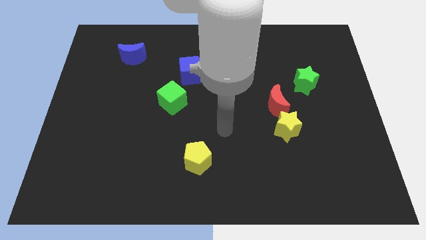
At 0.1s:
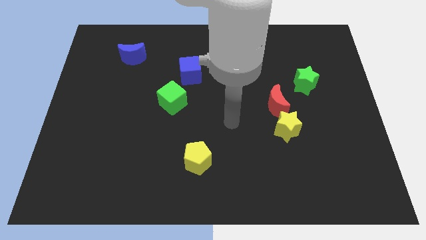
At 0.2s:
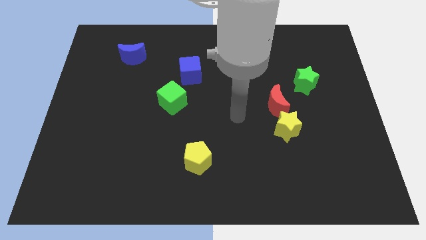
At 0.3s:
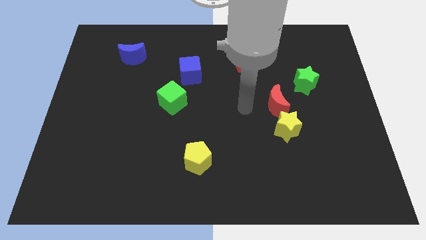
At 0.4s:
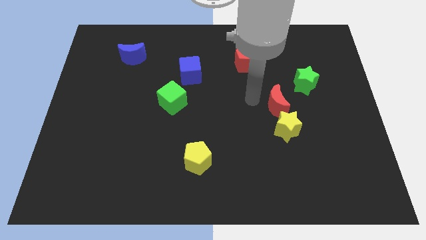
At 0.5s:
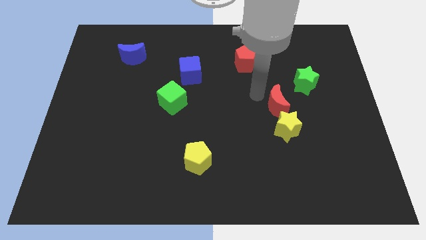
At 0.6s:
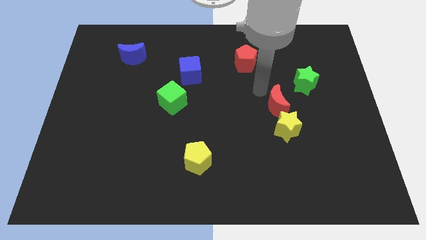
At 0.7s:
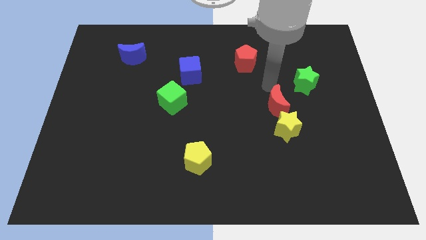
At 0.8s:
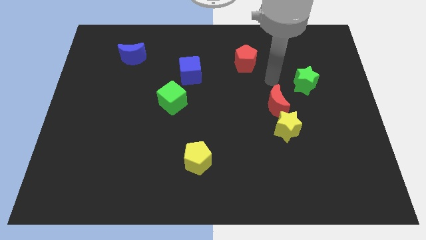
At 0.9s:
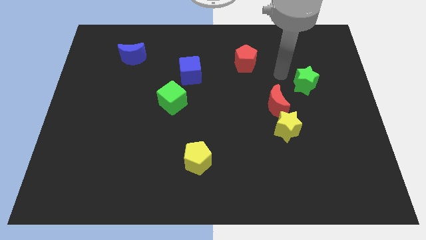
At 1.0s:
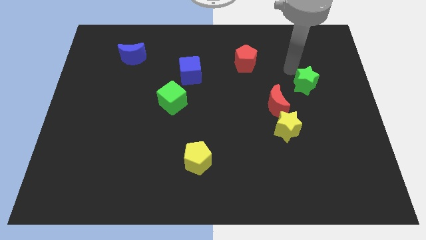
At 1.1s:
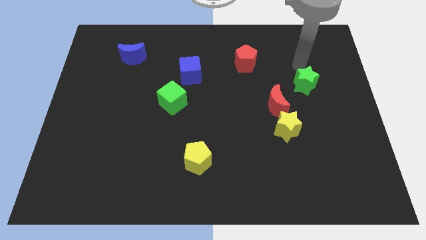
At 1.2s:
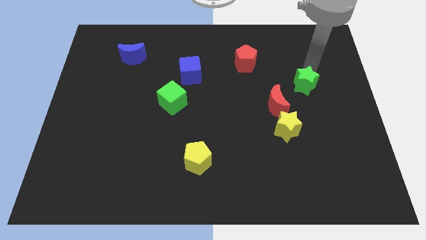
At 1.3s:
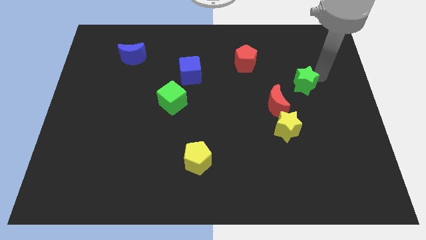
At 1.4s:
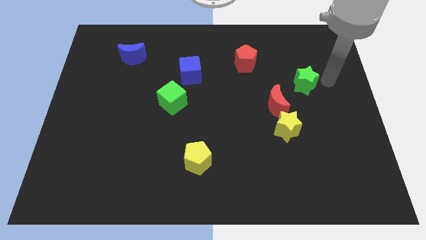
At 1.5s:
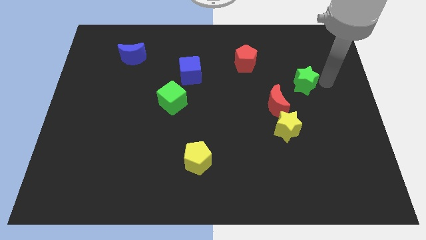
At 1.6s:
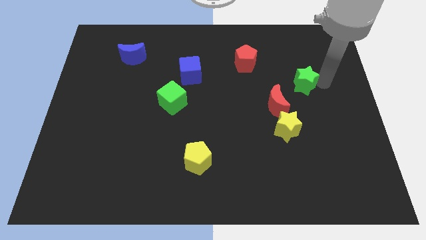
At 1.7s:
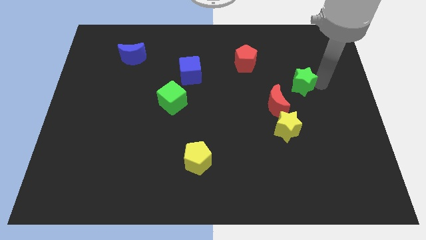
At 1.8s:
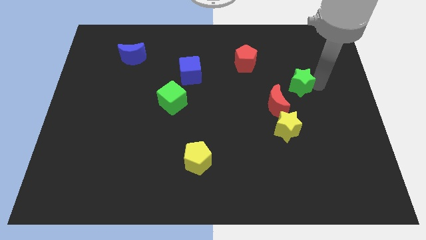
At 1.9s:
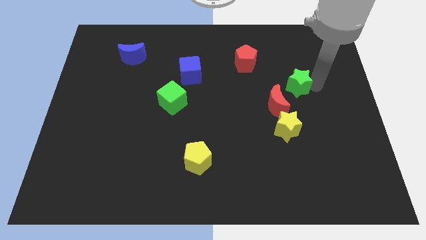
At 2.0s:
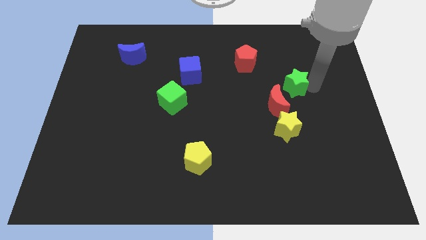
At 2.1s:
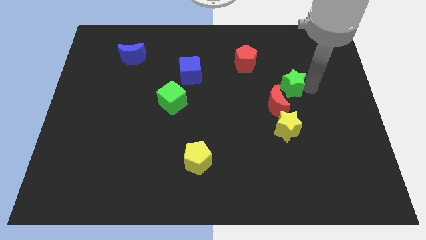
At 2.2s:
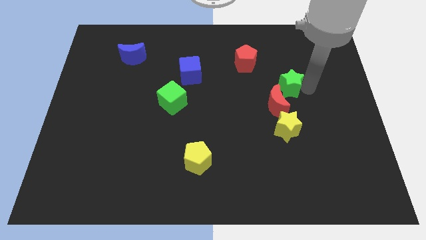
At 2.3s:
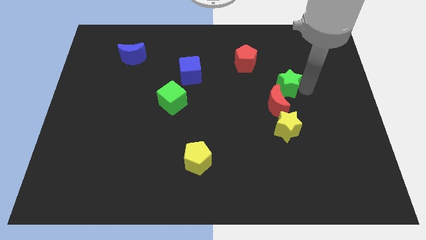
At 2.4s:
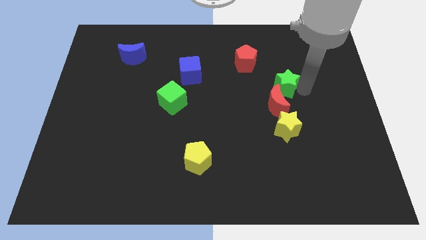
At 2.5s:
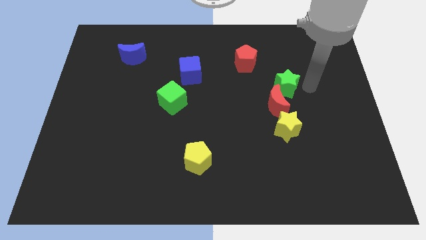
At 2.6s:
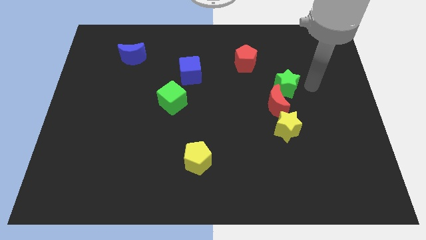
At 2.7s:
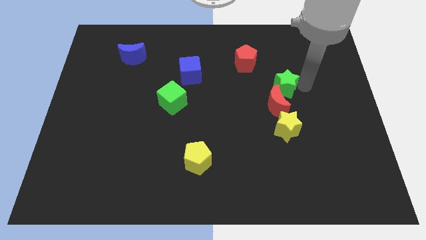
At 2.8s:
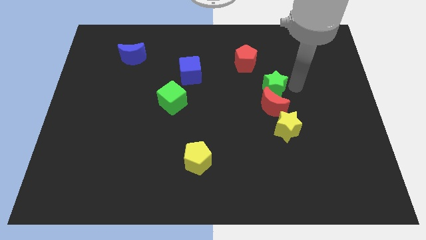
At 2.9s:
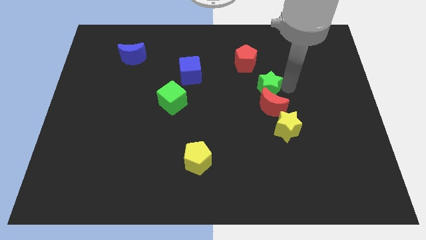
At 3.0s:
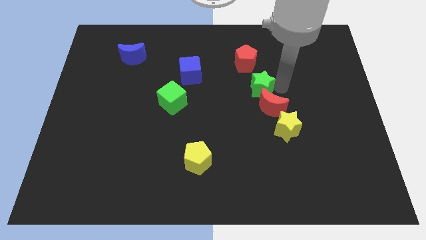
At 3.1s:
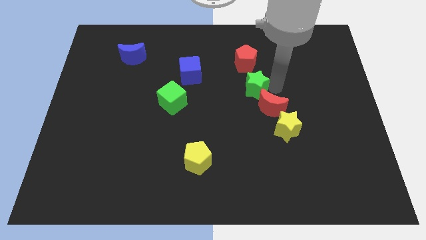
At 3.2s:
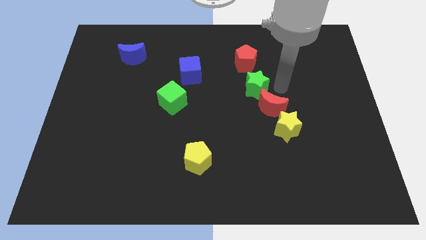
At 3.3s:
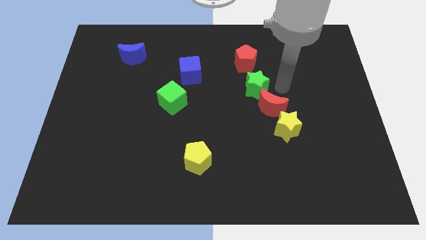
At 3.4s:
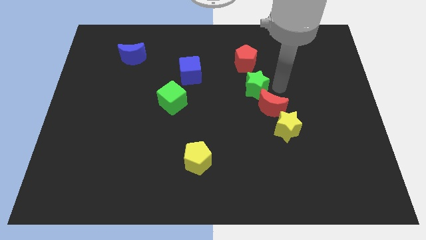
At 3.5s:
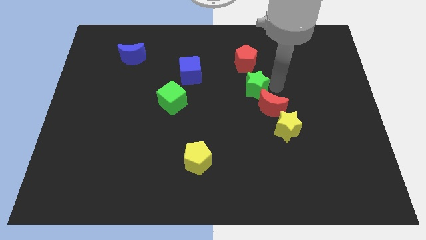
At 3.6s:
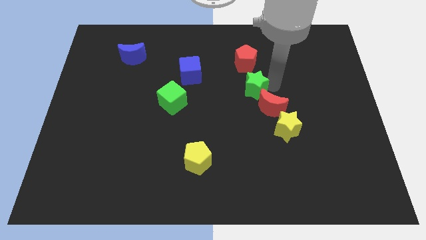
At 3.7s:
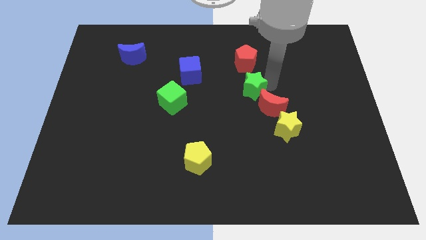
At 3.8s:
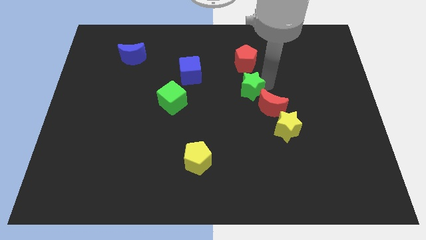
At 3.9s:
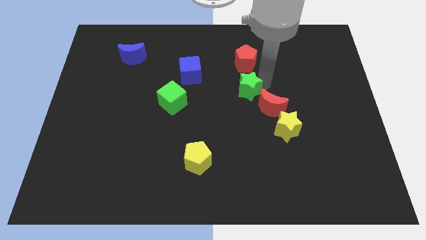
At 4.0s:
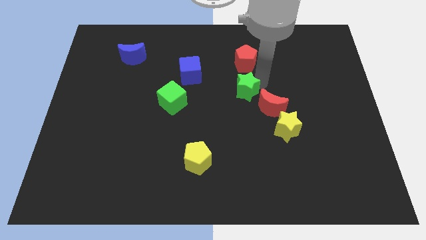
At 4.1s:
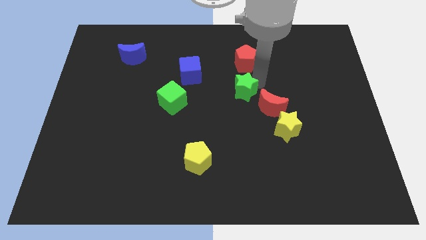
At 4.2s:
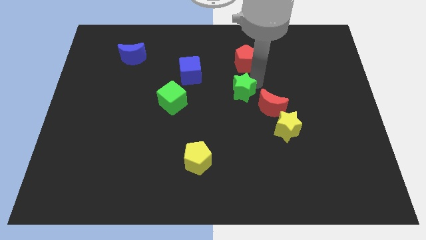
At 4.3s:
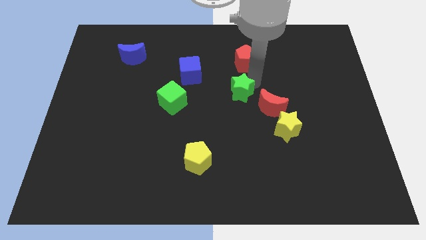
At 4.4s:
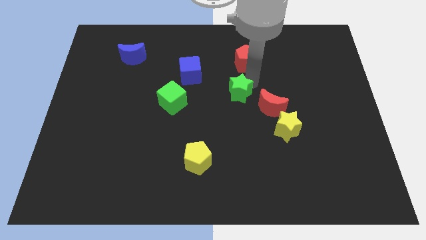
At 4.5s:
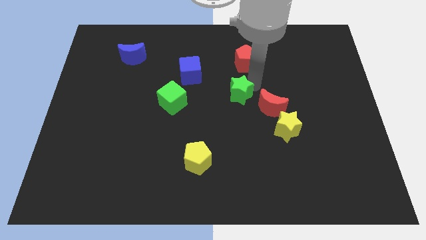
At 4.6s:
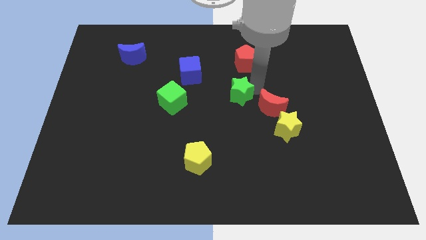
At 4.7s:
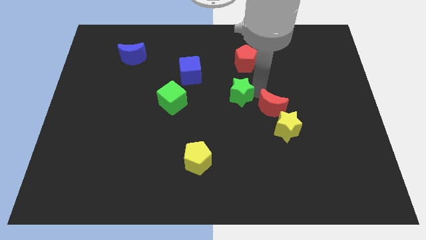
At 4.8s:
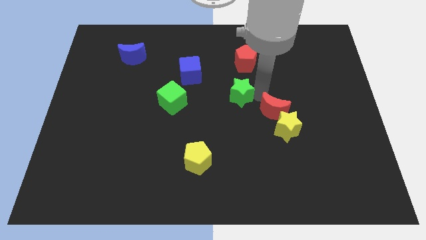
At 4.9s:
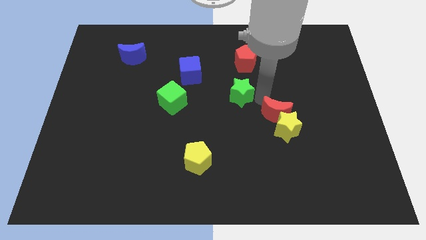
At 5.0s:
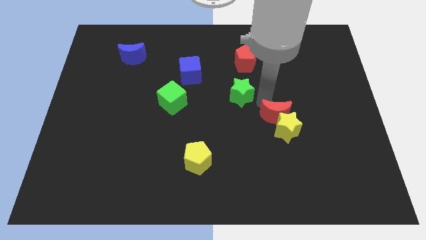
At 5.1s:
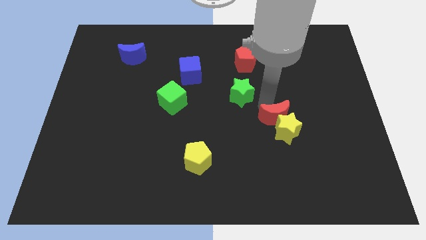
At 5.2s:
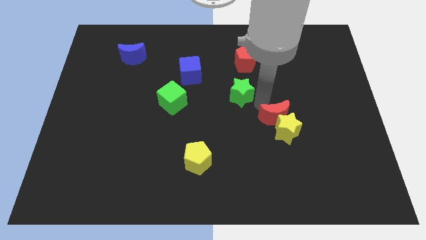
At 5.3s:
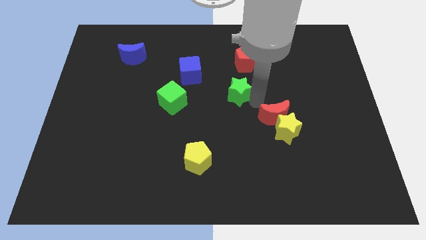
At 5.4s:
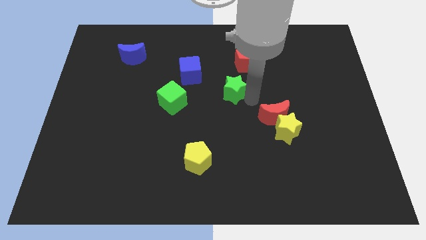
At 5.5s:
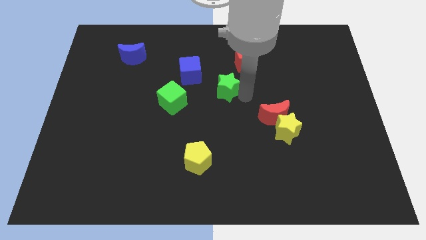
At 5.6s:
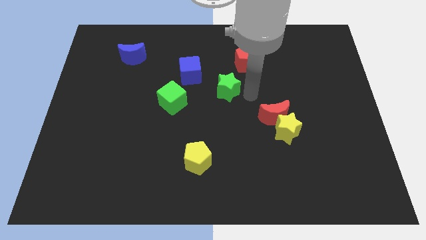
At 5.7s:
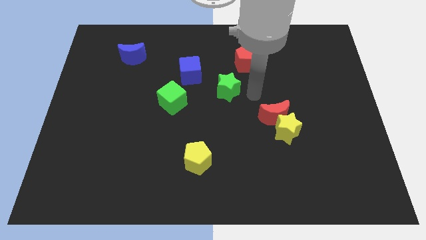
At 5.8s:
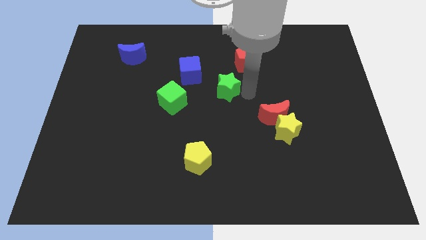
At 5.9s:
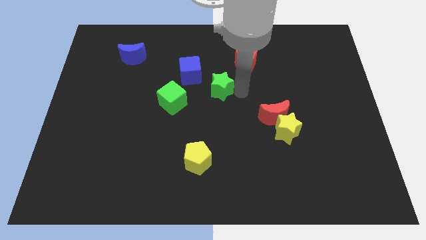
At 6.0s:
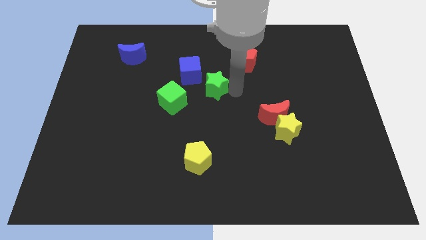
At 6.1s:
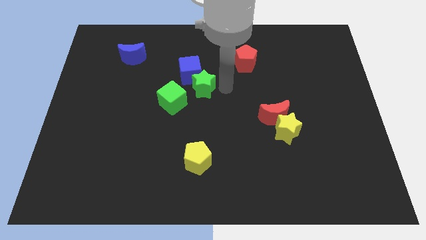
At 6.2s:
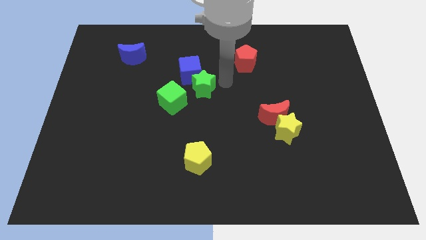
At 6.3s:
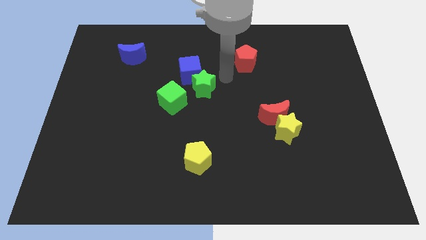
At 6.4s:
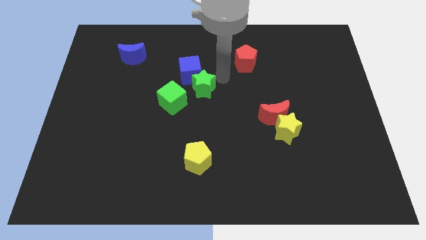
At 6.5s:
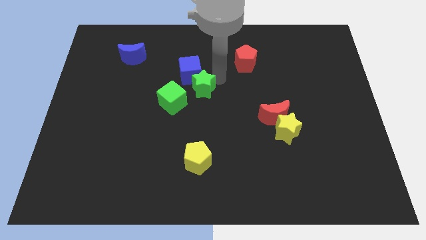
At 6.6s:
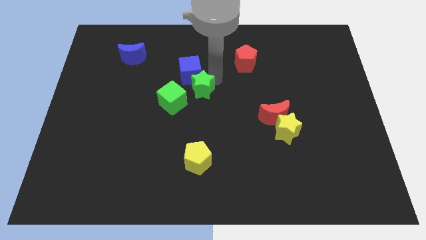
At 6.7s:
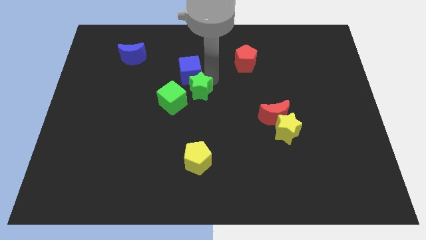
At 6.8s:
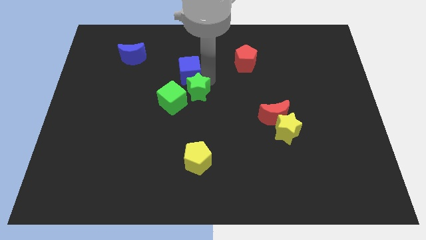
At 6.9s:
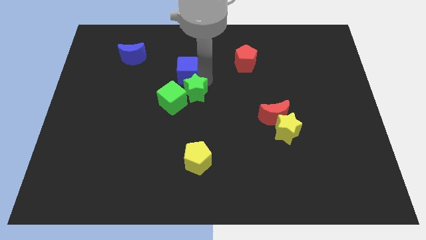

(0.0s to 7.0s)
push the green star close to the green cube
